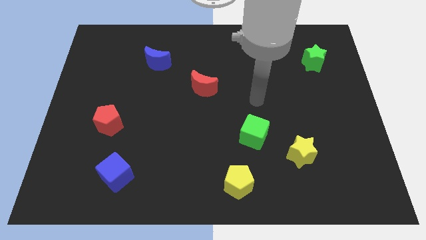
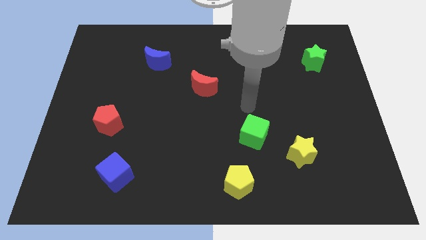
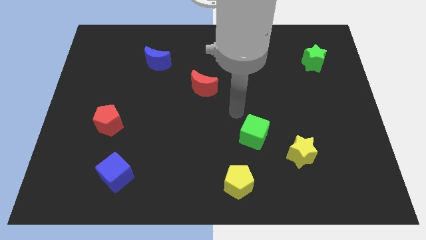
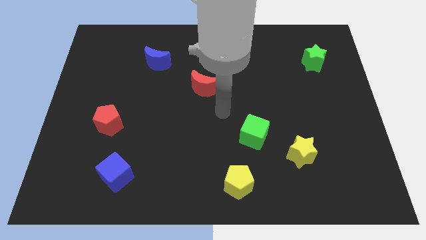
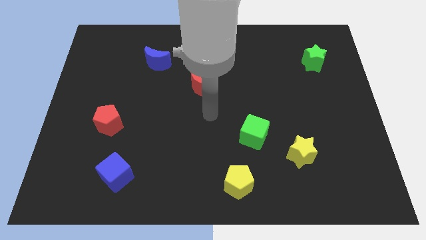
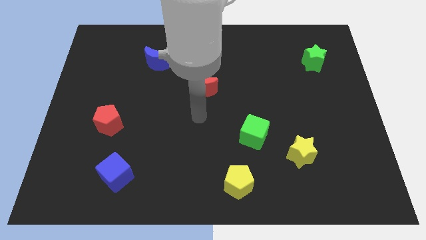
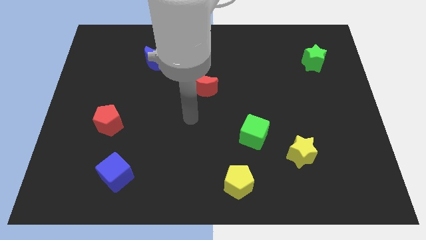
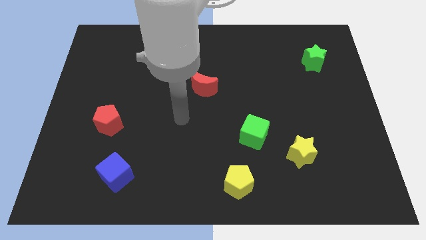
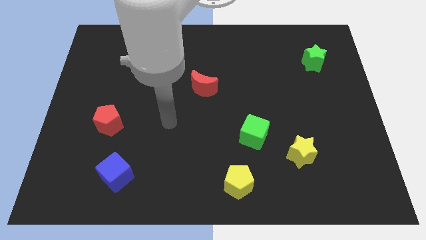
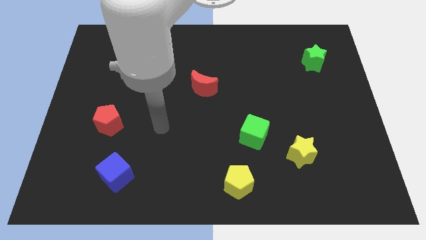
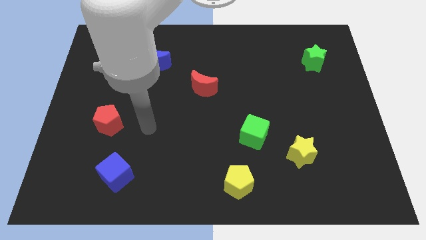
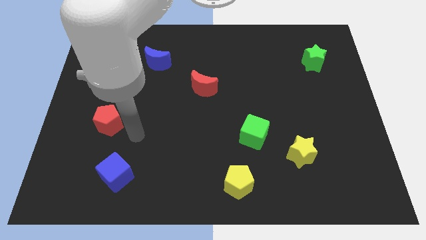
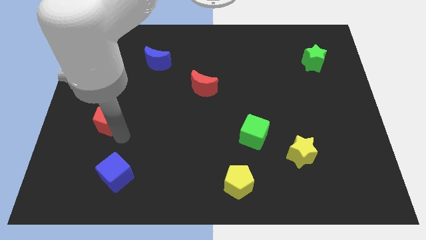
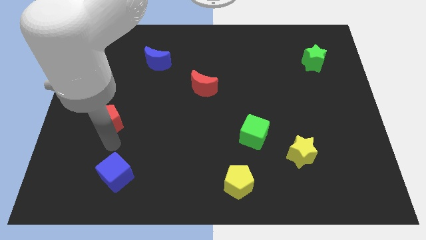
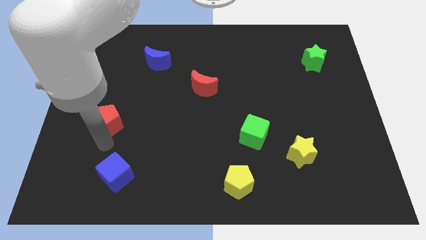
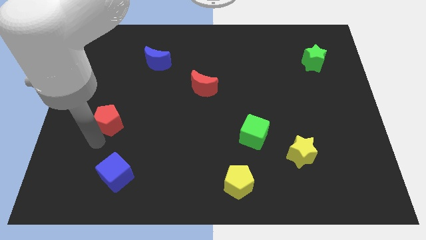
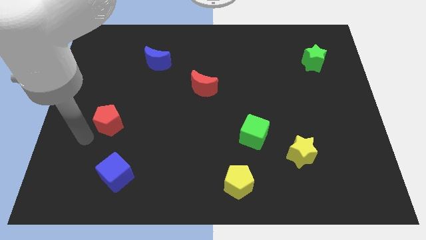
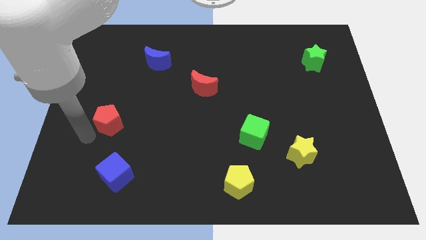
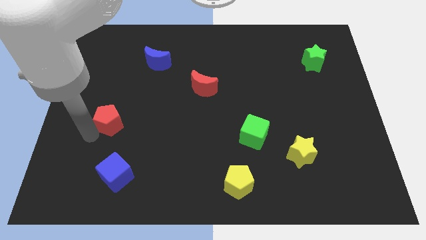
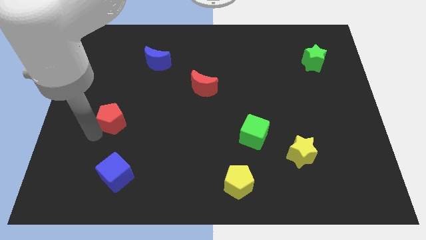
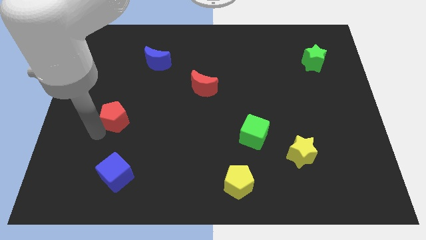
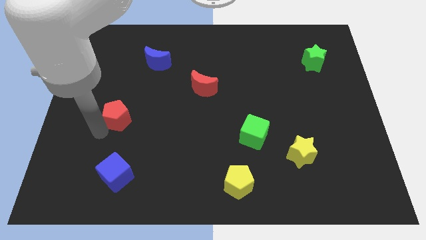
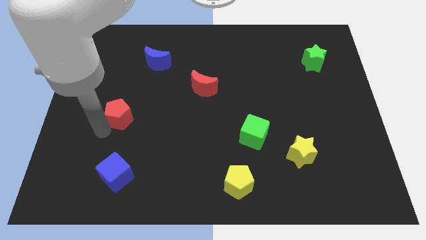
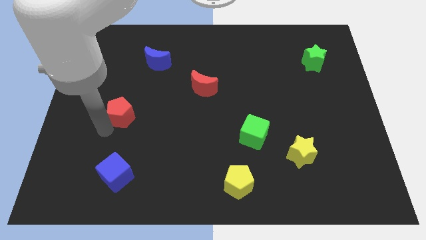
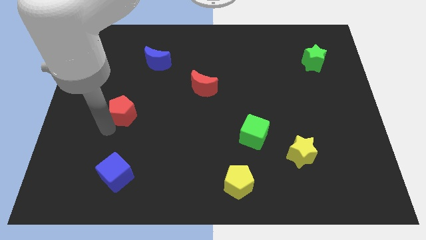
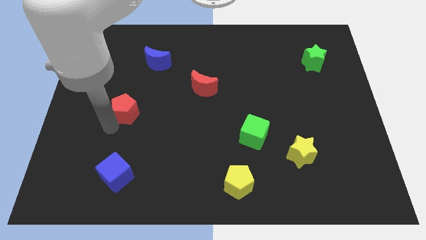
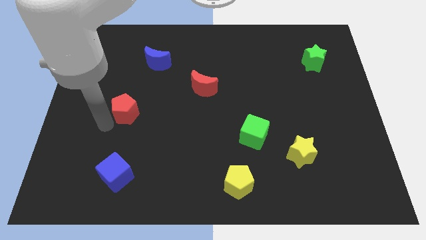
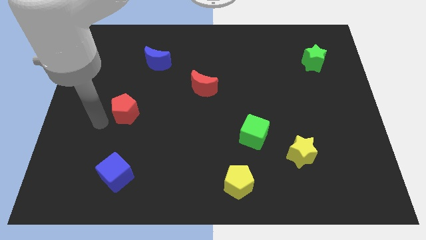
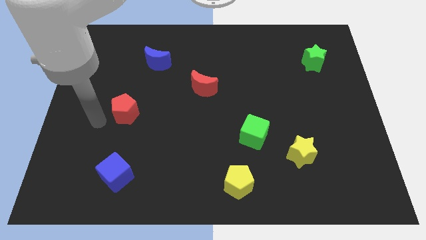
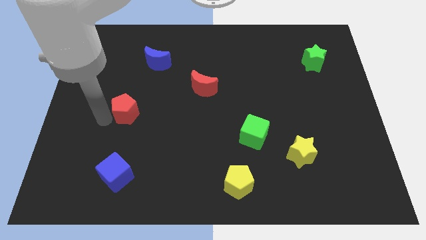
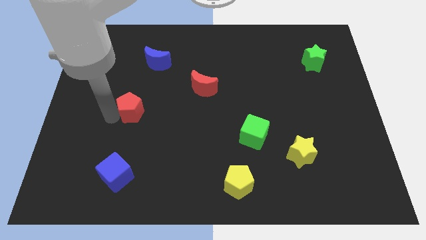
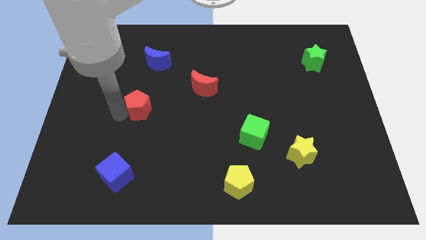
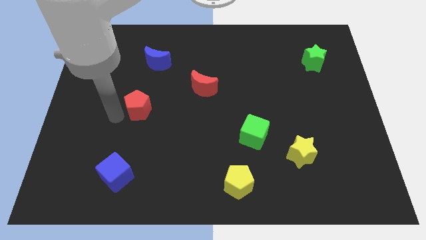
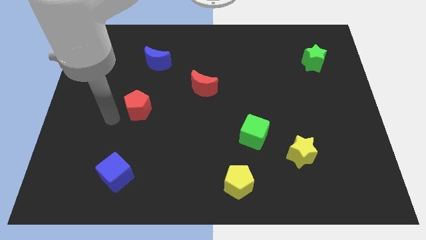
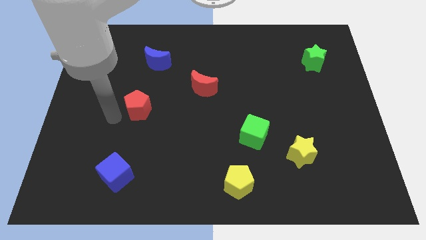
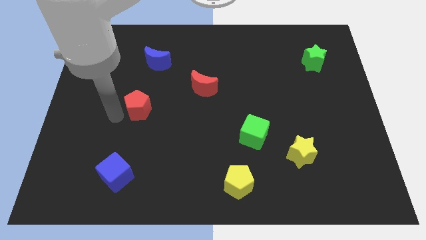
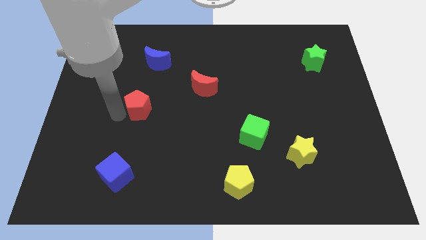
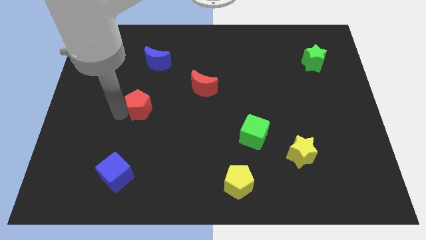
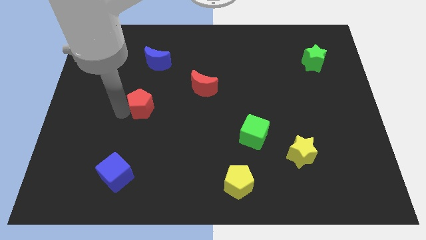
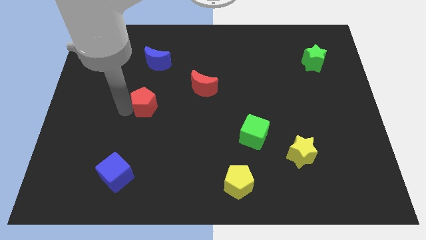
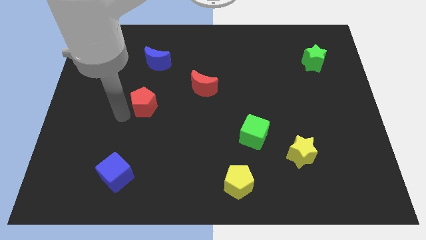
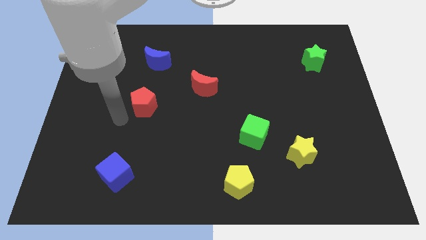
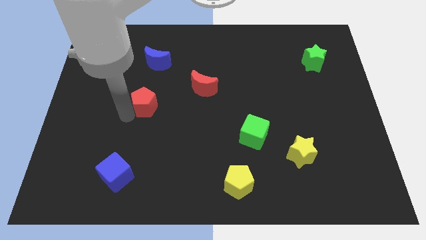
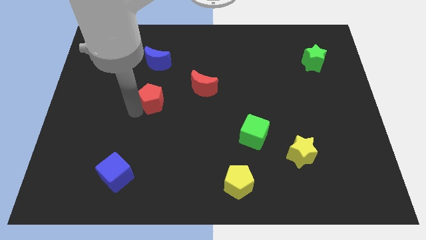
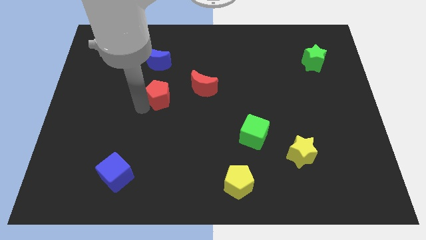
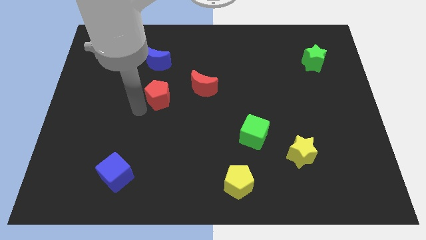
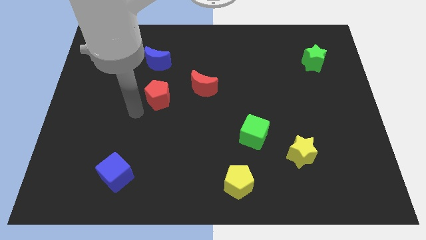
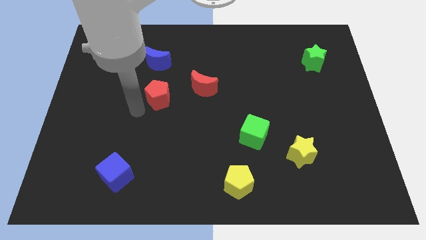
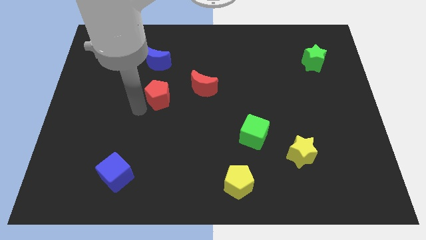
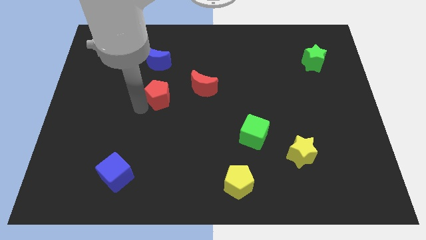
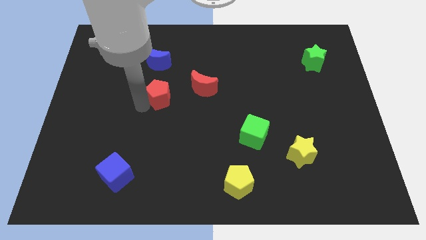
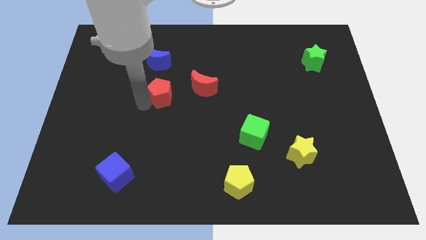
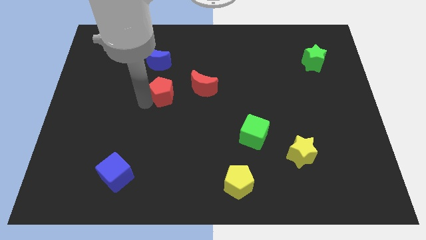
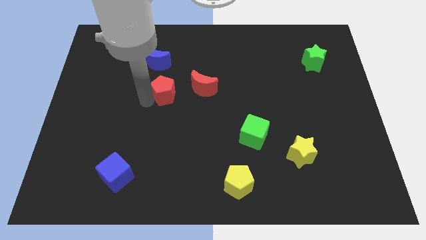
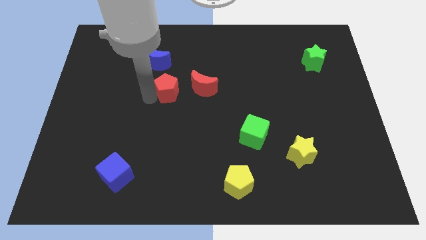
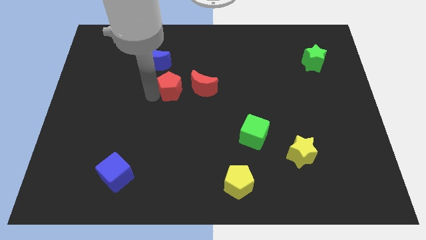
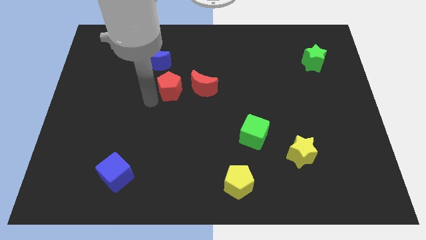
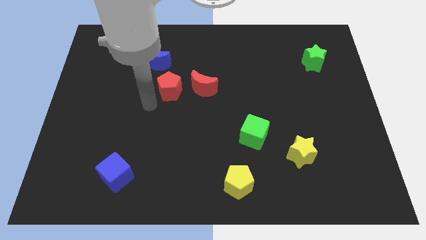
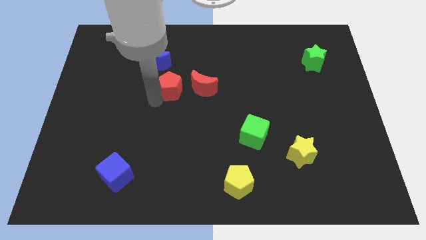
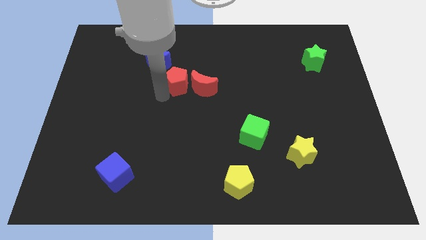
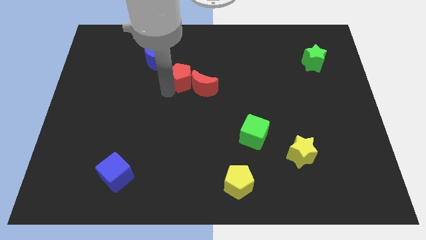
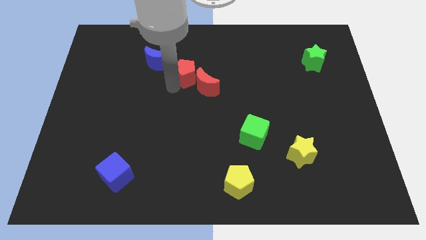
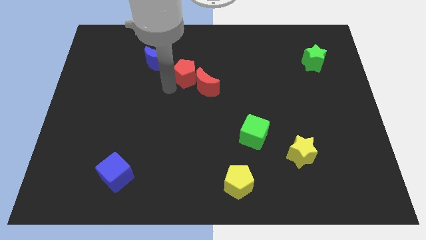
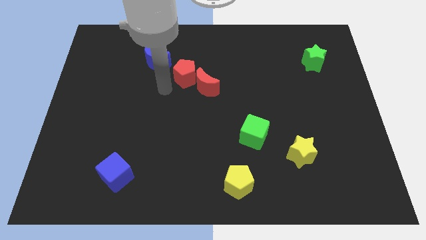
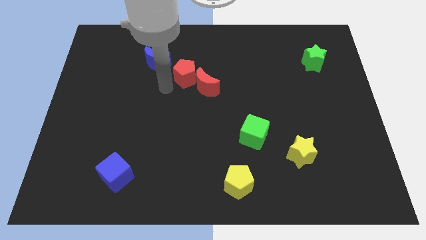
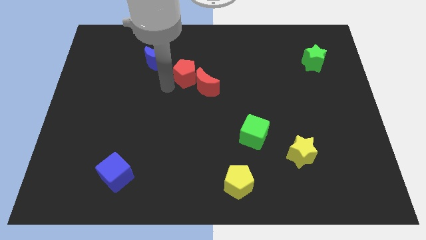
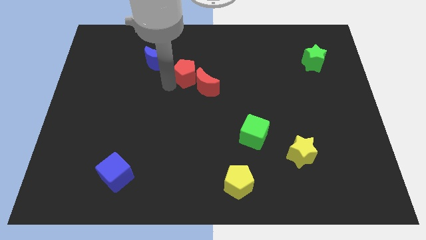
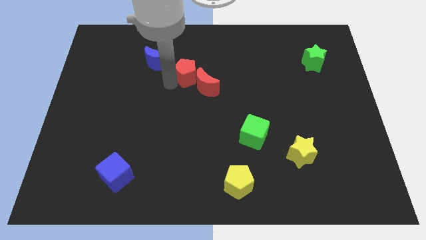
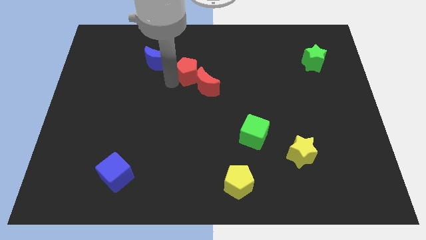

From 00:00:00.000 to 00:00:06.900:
put the red pentagon to the top side of the red moon

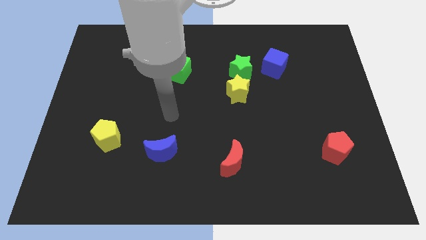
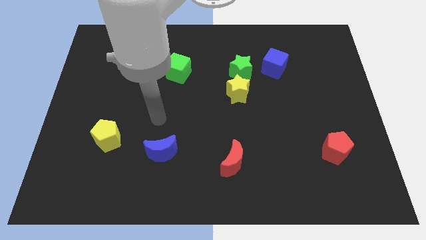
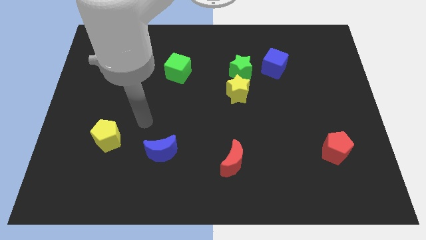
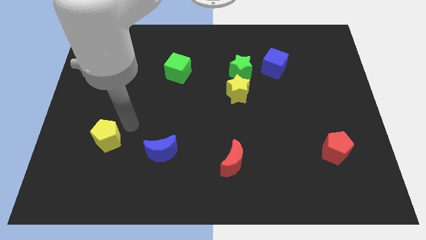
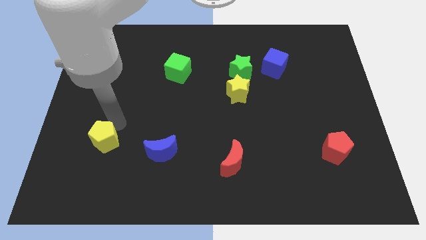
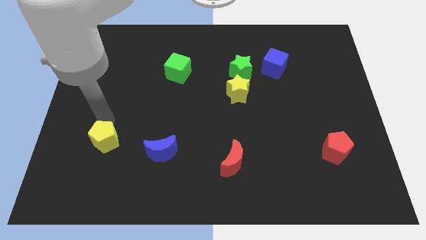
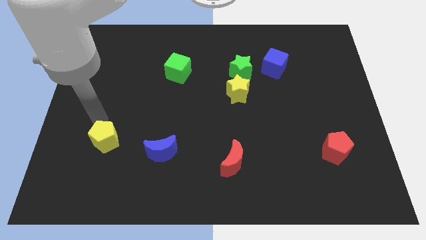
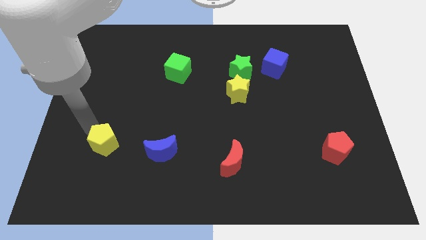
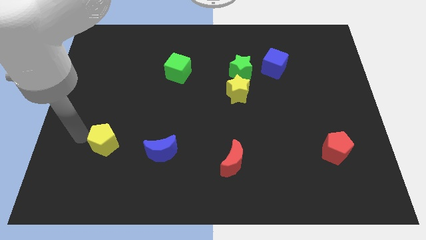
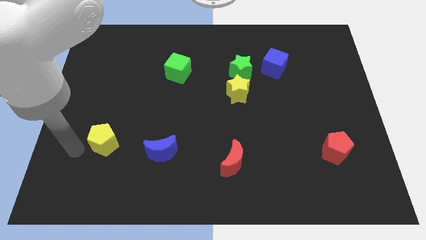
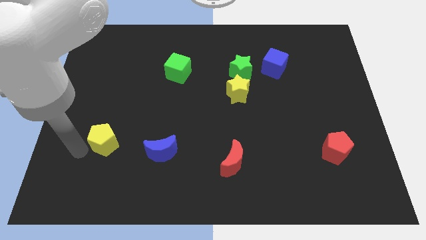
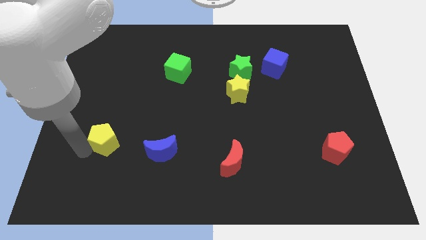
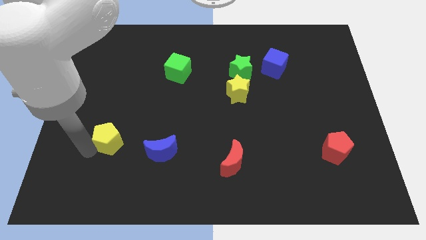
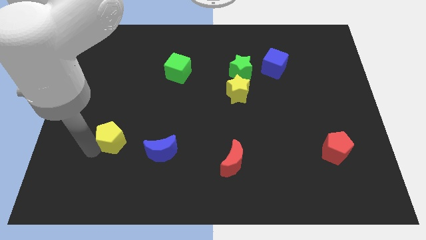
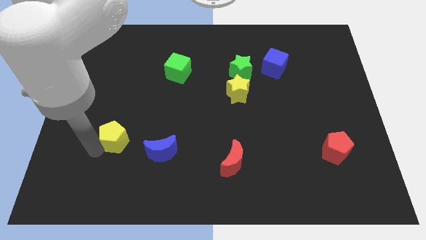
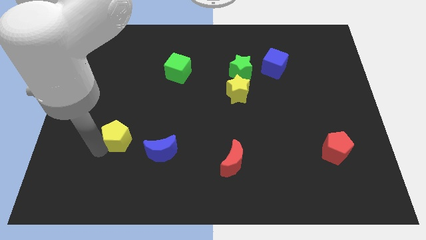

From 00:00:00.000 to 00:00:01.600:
move the yellow pentagon to the top left side of the blue moon
